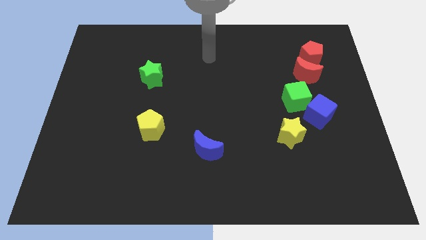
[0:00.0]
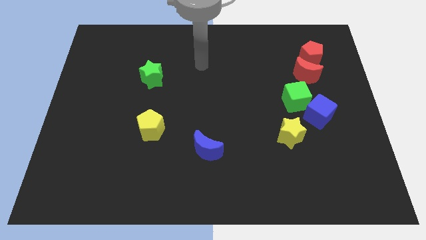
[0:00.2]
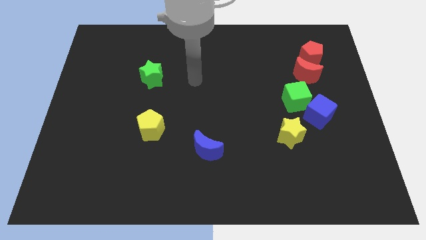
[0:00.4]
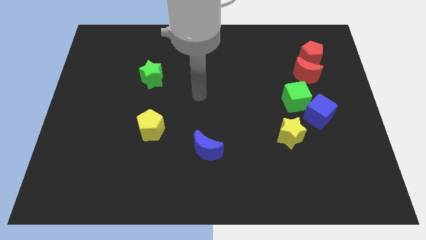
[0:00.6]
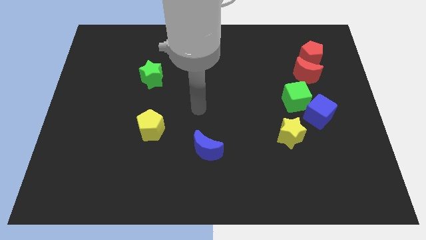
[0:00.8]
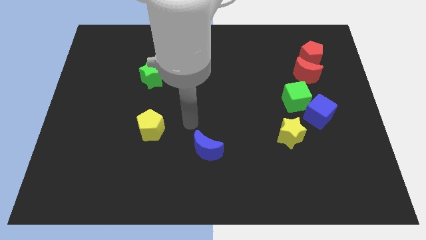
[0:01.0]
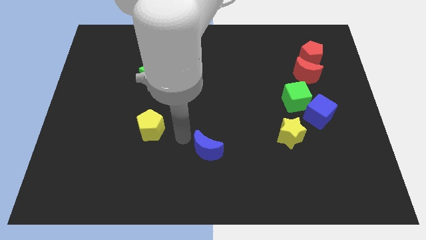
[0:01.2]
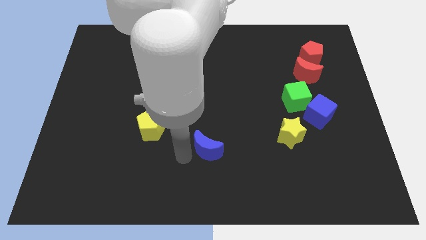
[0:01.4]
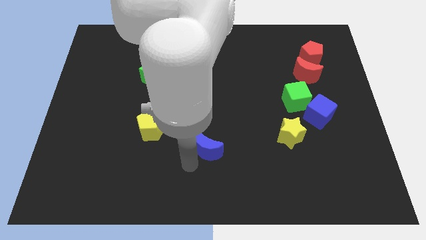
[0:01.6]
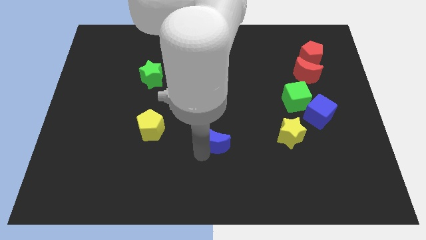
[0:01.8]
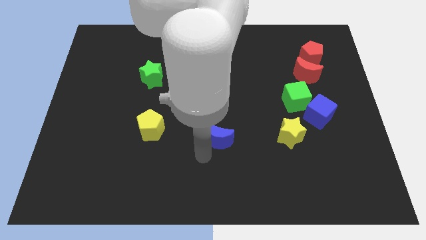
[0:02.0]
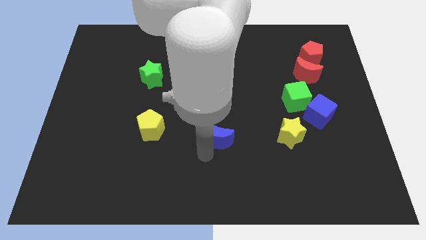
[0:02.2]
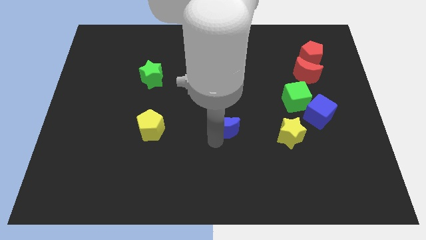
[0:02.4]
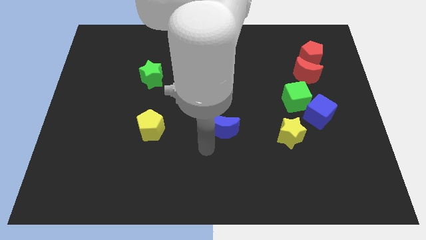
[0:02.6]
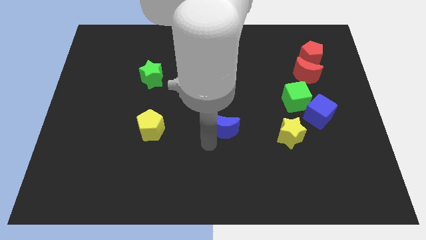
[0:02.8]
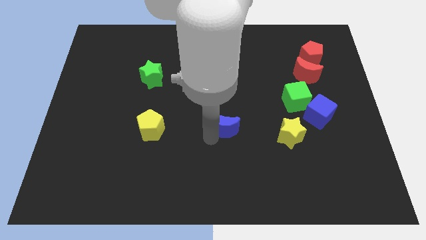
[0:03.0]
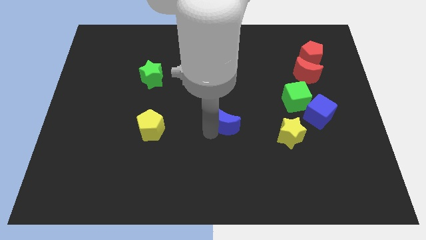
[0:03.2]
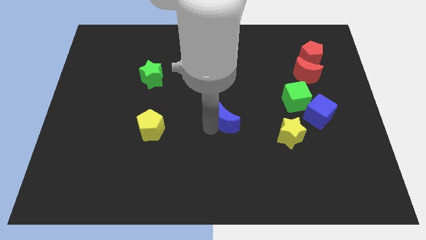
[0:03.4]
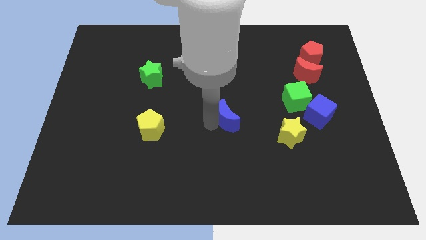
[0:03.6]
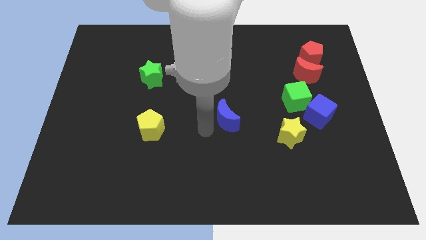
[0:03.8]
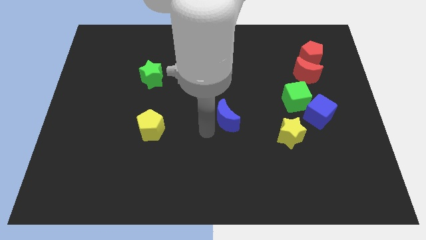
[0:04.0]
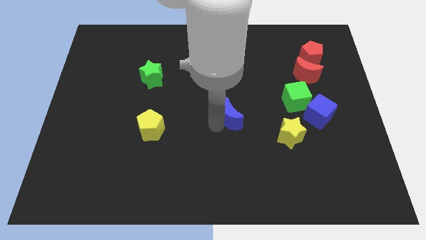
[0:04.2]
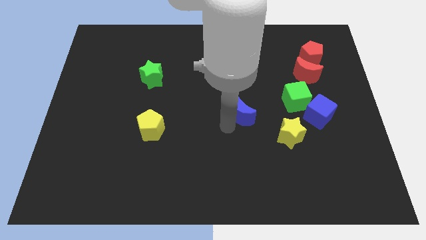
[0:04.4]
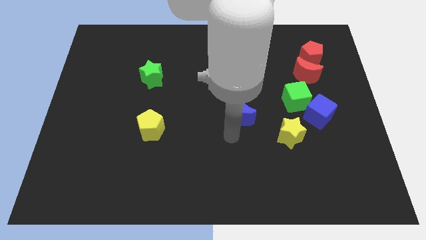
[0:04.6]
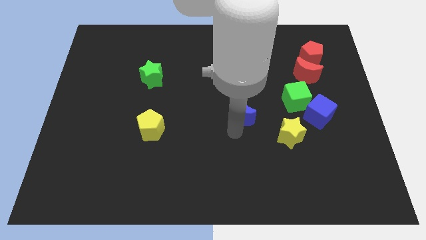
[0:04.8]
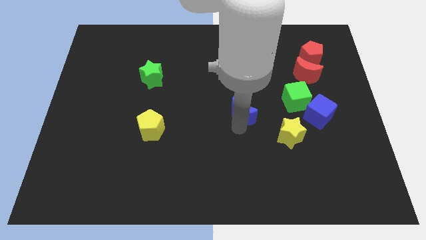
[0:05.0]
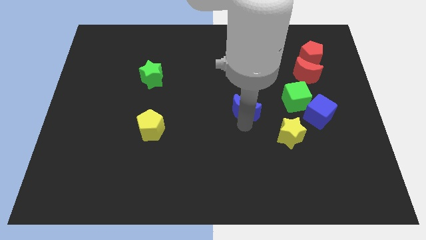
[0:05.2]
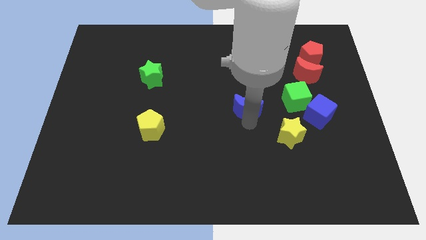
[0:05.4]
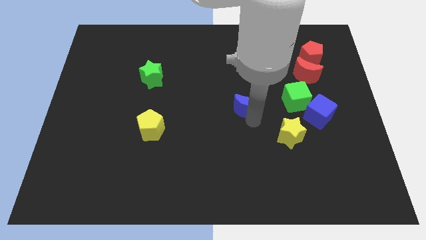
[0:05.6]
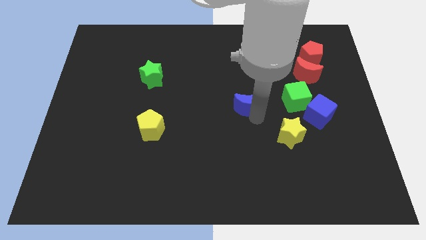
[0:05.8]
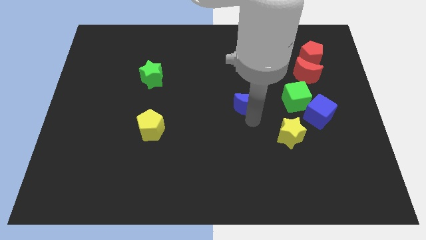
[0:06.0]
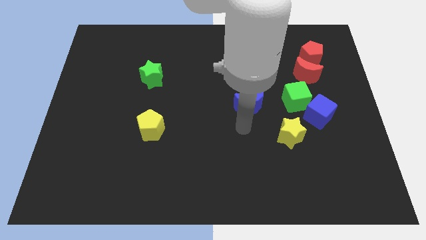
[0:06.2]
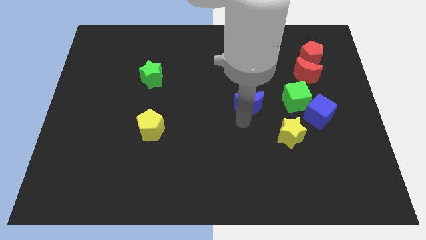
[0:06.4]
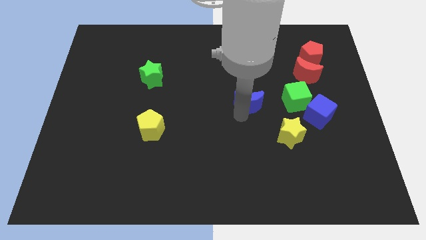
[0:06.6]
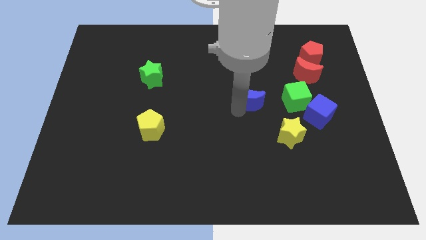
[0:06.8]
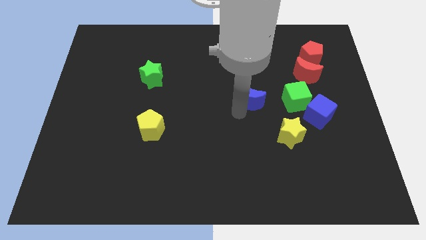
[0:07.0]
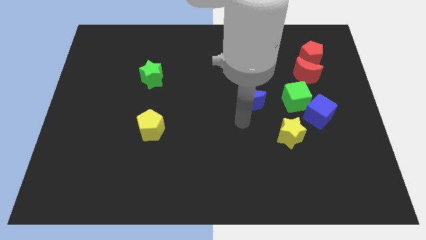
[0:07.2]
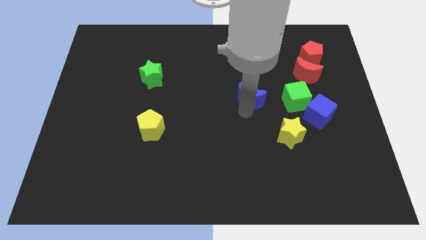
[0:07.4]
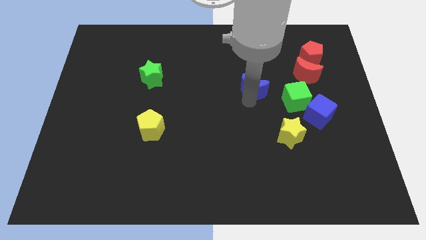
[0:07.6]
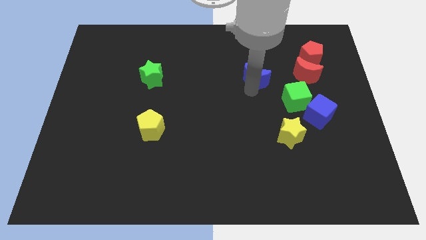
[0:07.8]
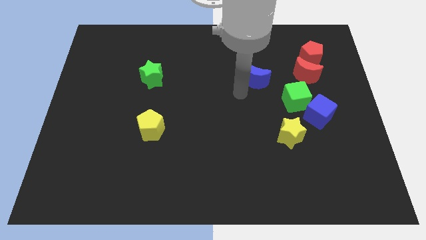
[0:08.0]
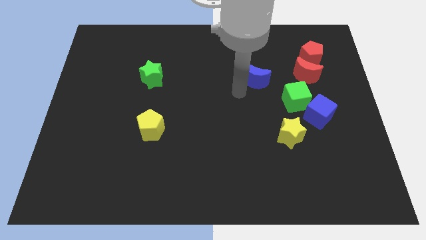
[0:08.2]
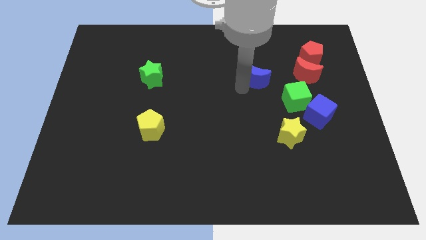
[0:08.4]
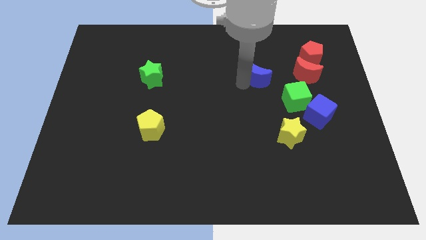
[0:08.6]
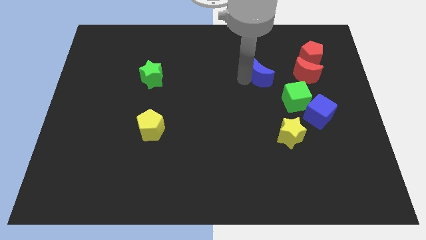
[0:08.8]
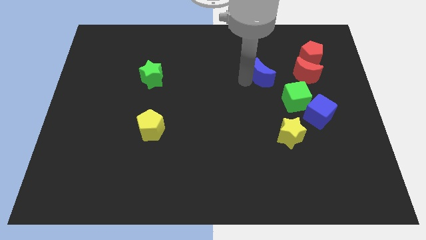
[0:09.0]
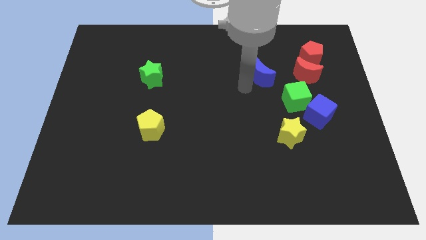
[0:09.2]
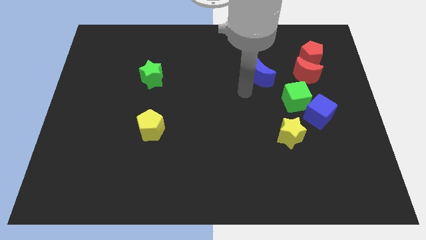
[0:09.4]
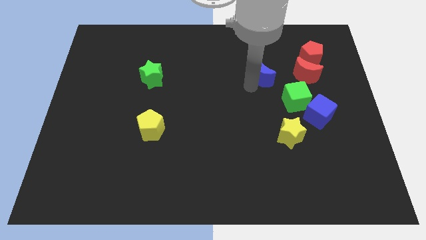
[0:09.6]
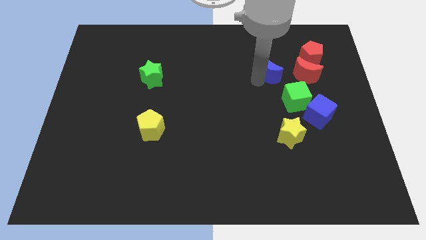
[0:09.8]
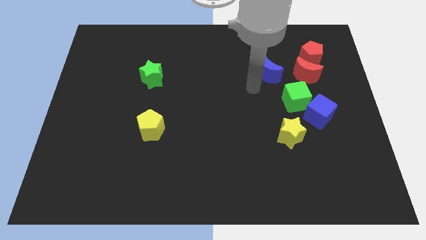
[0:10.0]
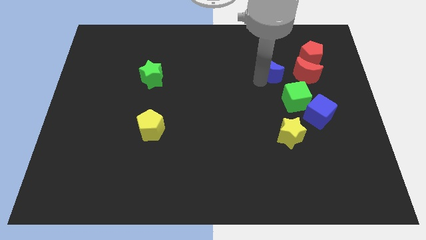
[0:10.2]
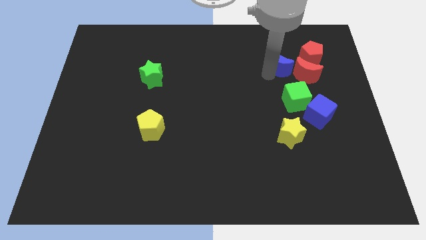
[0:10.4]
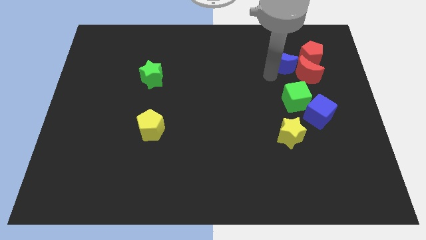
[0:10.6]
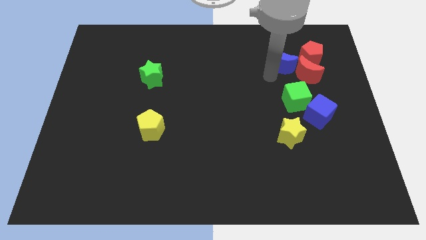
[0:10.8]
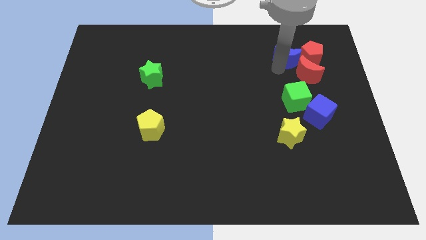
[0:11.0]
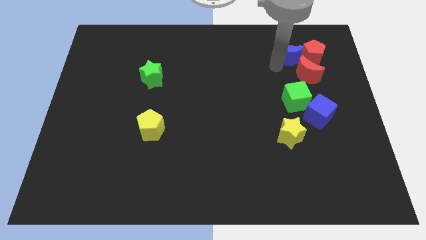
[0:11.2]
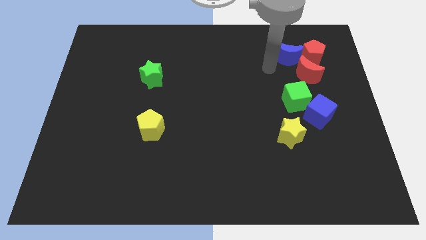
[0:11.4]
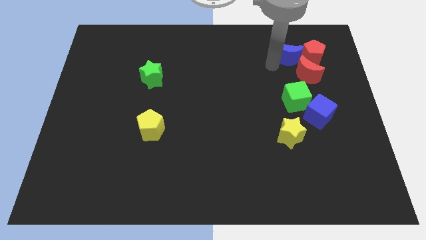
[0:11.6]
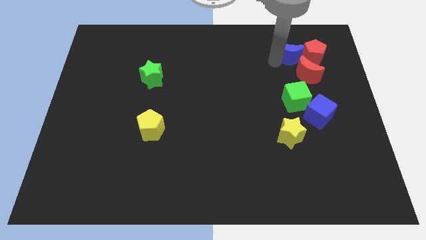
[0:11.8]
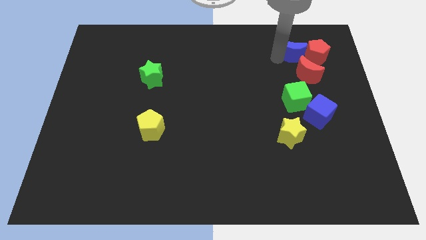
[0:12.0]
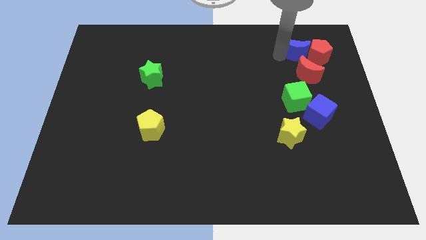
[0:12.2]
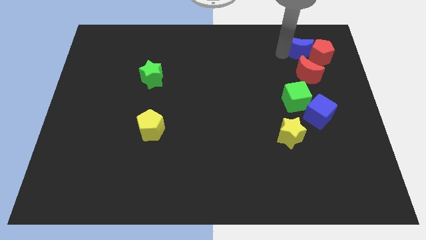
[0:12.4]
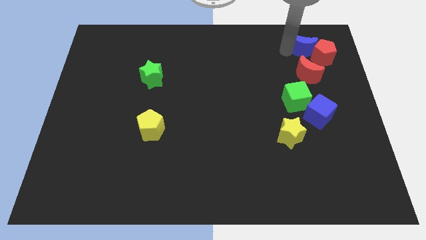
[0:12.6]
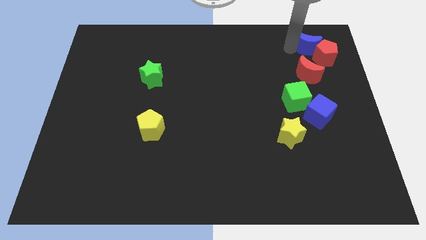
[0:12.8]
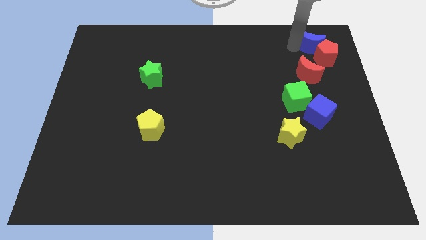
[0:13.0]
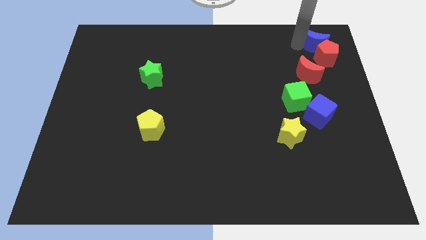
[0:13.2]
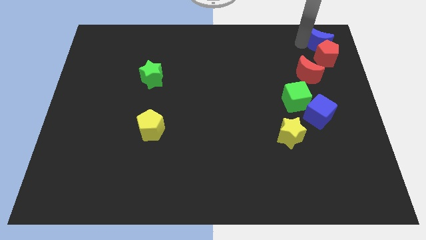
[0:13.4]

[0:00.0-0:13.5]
slide the blue moon to the top right
